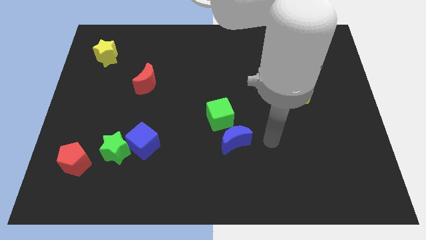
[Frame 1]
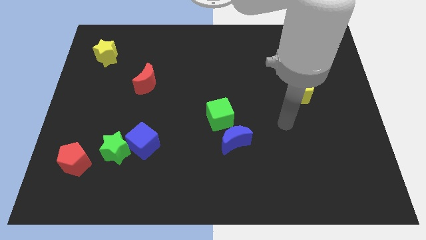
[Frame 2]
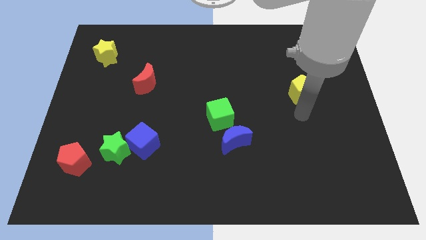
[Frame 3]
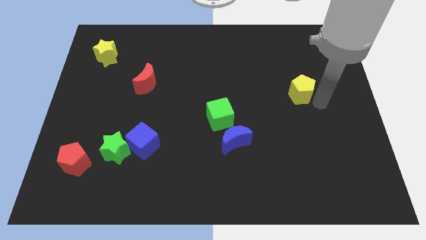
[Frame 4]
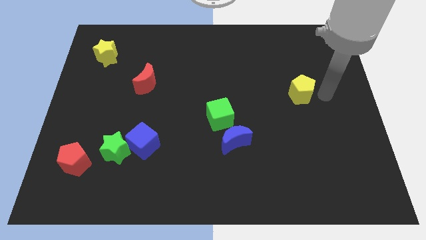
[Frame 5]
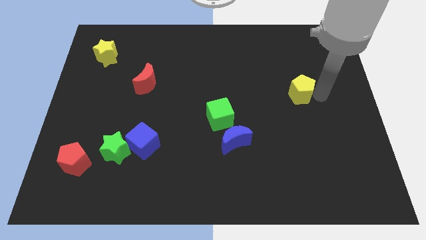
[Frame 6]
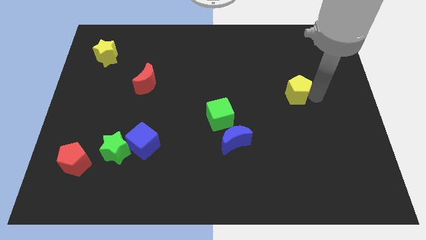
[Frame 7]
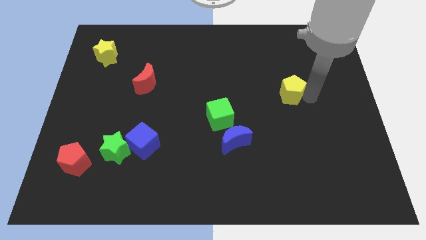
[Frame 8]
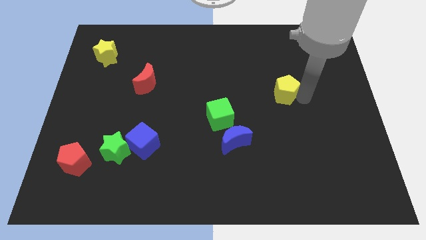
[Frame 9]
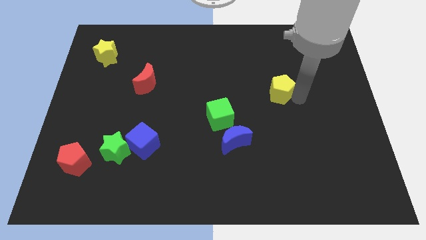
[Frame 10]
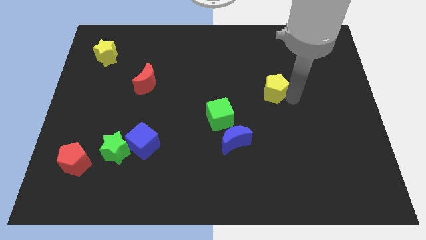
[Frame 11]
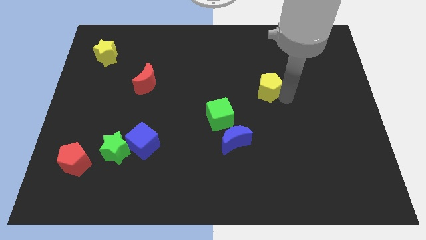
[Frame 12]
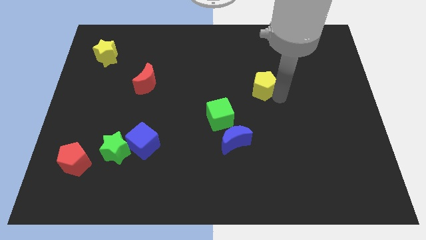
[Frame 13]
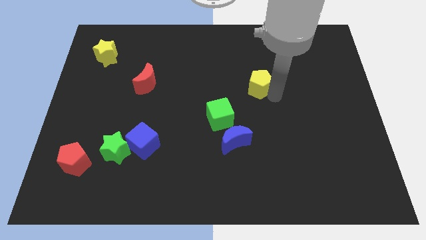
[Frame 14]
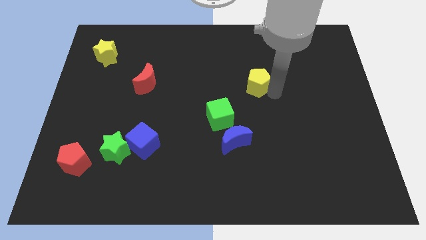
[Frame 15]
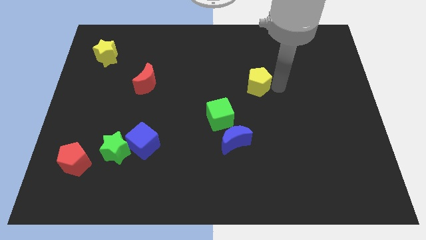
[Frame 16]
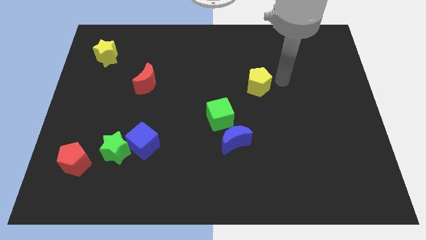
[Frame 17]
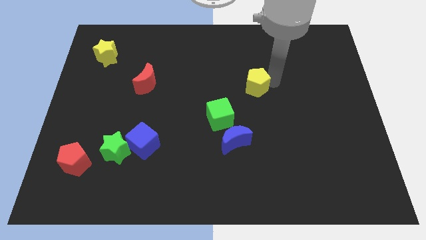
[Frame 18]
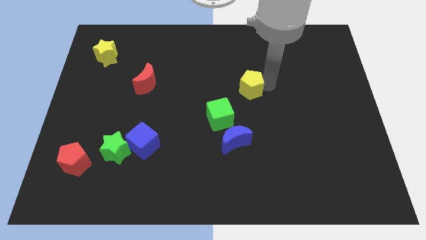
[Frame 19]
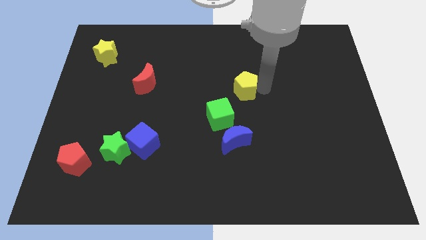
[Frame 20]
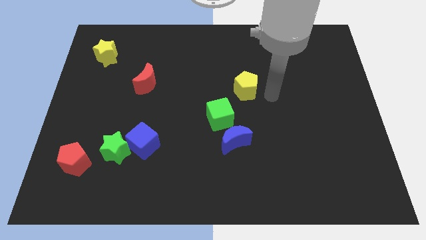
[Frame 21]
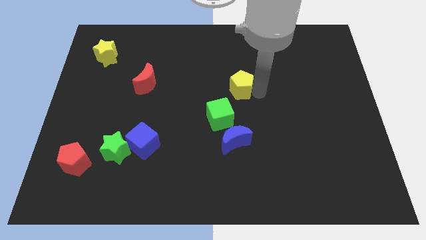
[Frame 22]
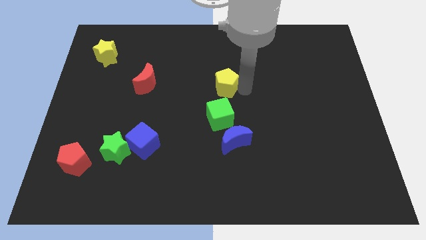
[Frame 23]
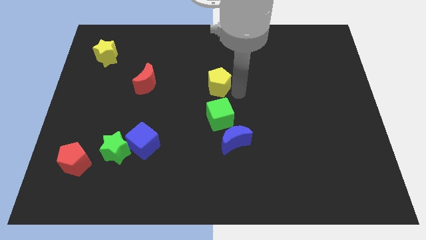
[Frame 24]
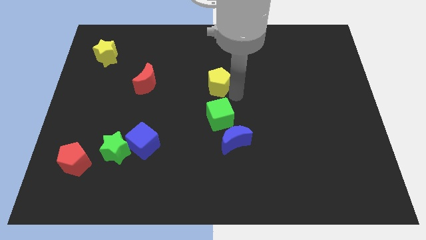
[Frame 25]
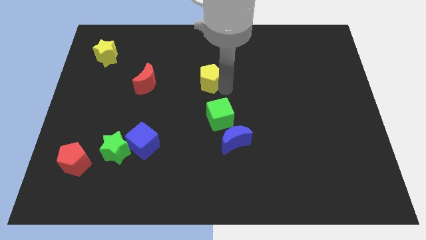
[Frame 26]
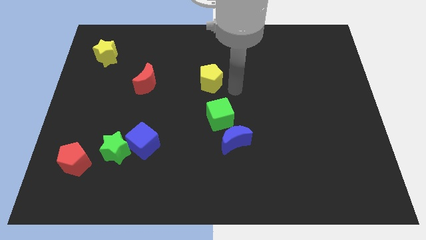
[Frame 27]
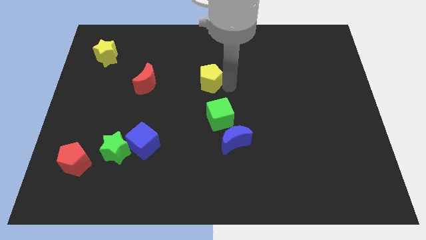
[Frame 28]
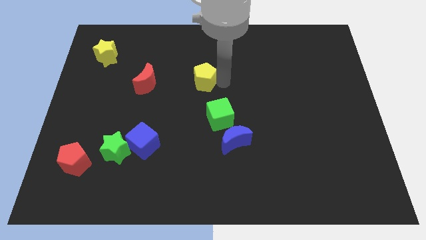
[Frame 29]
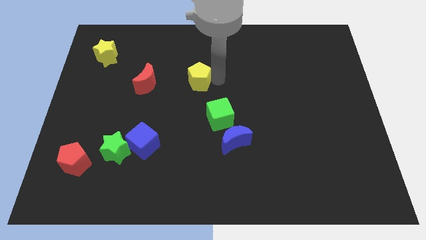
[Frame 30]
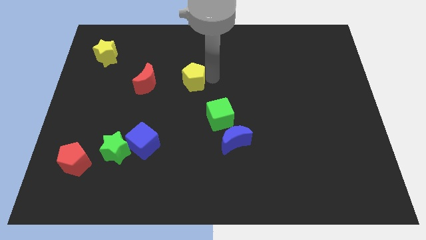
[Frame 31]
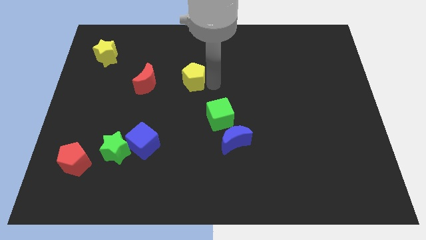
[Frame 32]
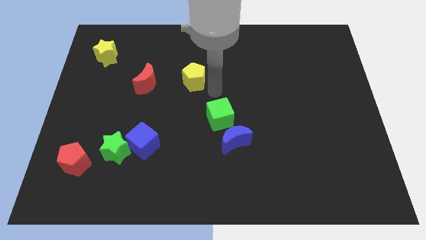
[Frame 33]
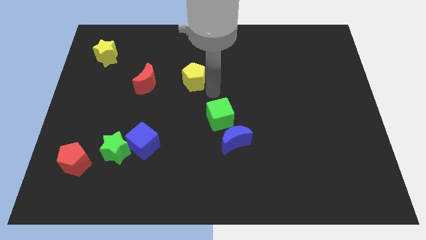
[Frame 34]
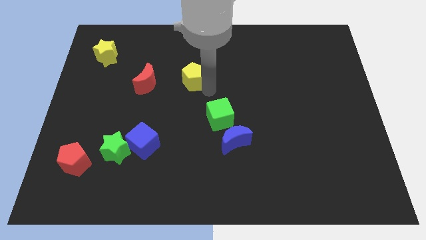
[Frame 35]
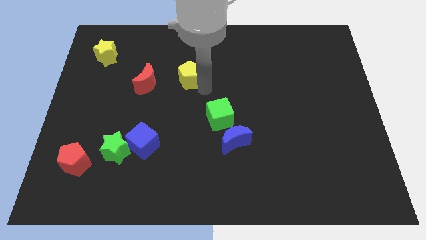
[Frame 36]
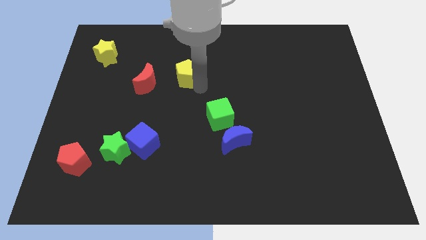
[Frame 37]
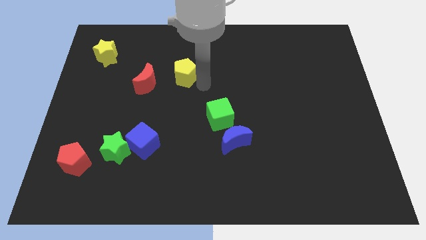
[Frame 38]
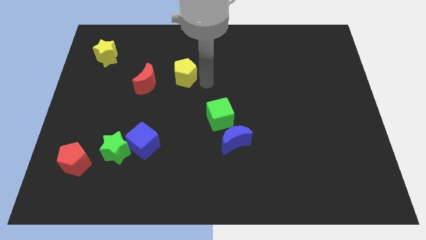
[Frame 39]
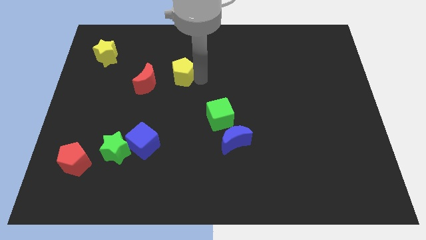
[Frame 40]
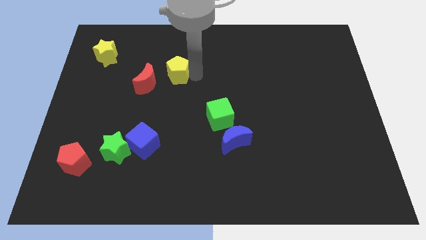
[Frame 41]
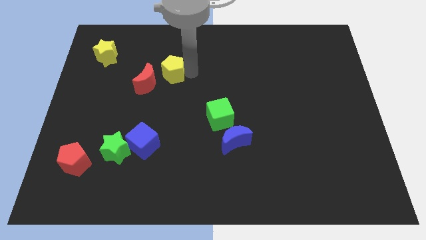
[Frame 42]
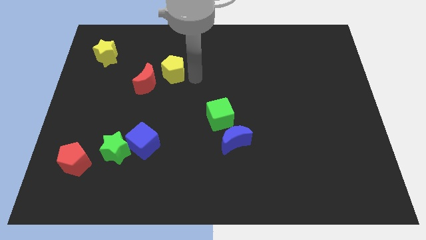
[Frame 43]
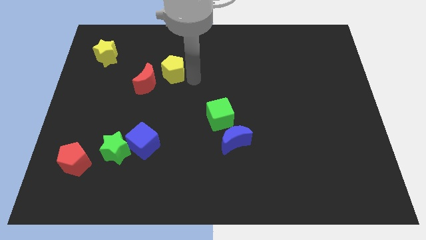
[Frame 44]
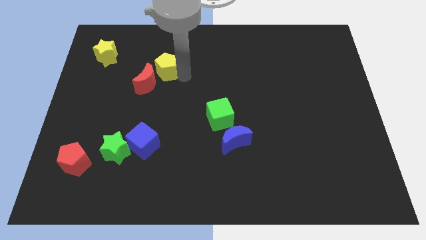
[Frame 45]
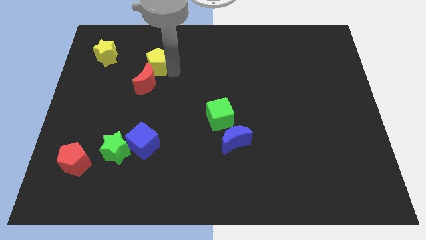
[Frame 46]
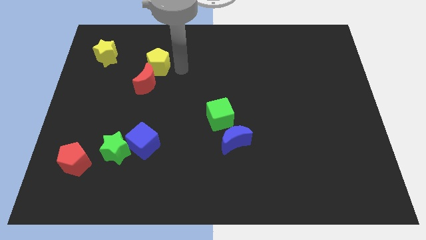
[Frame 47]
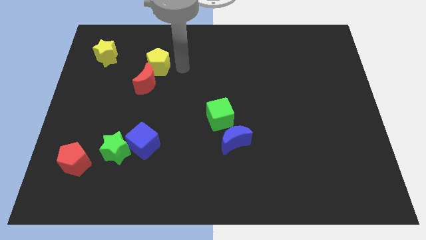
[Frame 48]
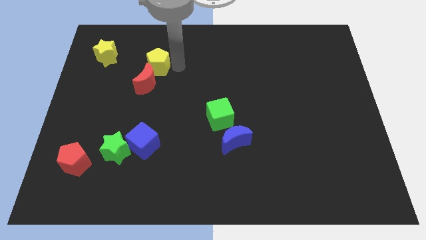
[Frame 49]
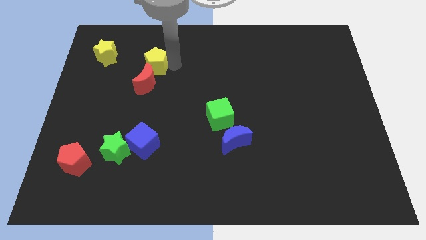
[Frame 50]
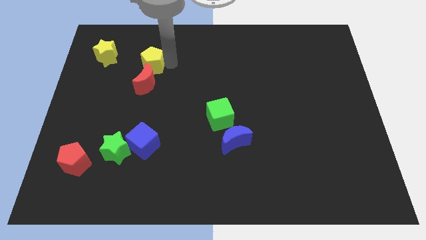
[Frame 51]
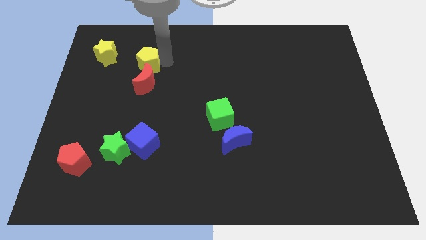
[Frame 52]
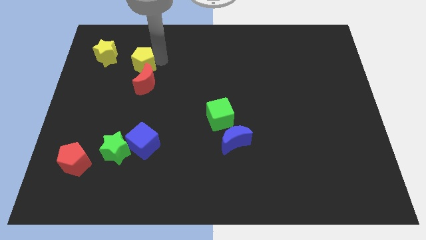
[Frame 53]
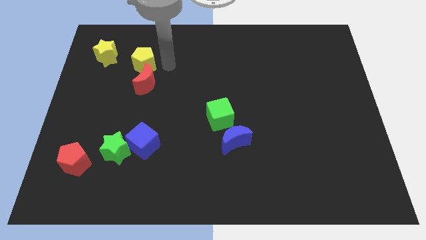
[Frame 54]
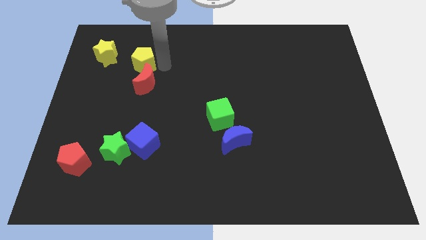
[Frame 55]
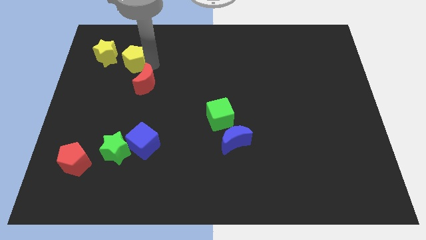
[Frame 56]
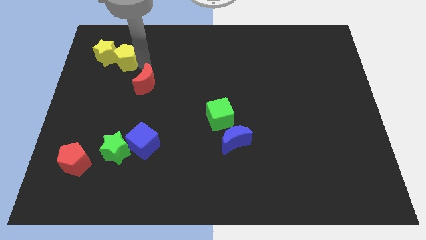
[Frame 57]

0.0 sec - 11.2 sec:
put the yellow pentagon close to the yellow star

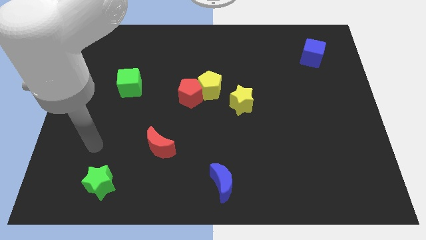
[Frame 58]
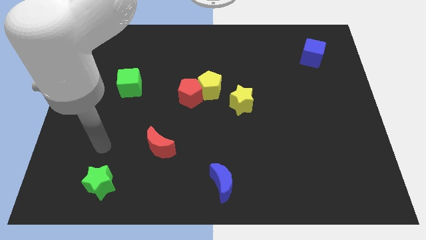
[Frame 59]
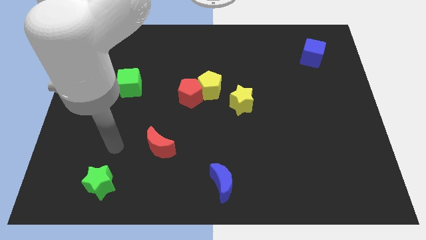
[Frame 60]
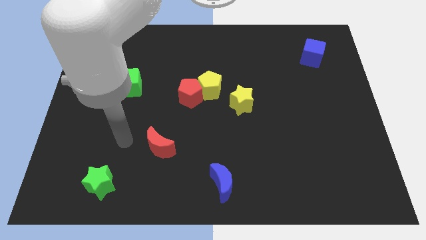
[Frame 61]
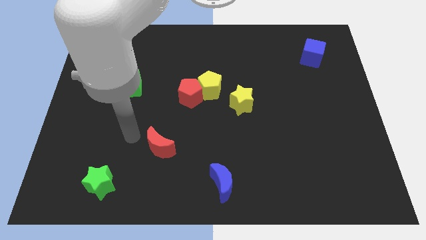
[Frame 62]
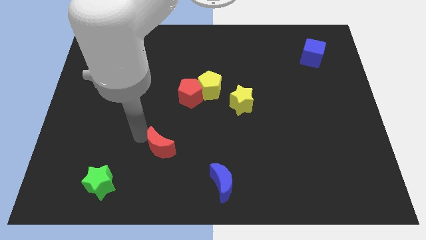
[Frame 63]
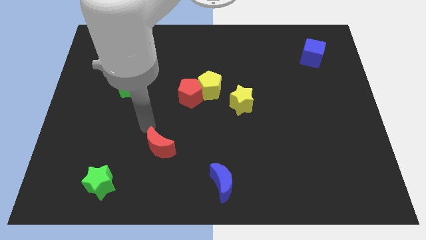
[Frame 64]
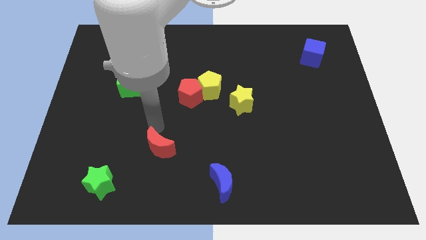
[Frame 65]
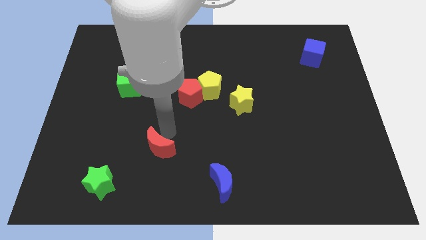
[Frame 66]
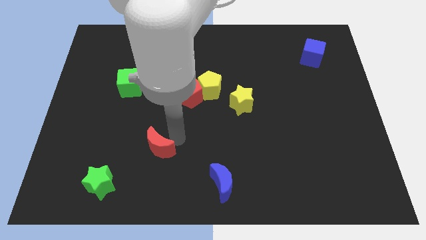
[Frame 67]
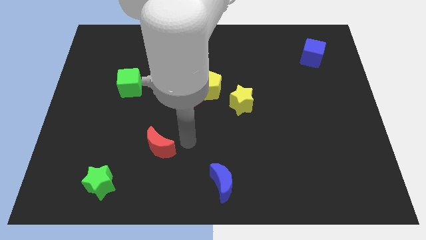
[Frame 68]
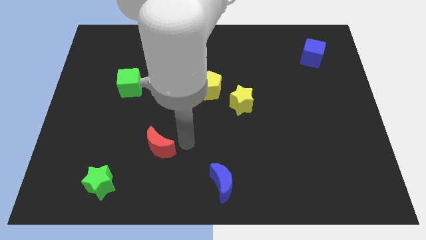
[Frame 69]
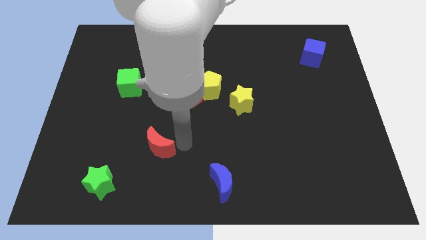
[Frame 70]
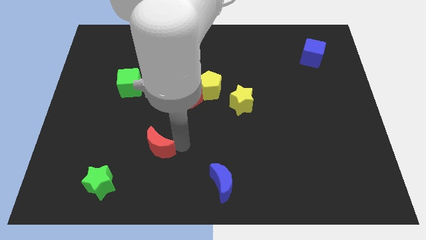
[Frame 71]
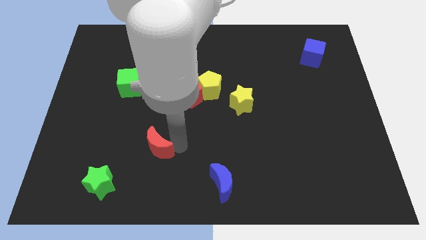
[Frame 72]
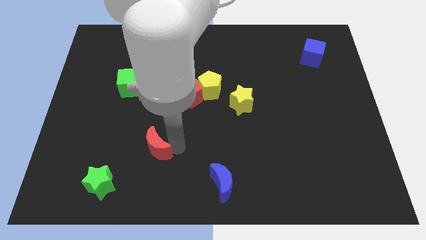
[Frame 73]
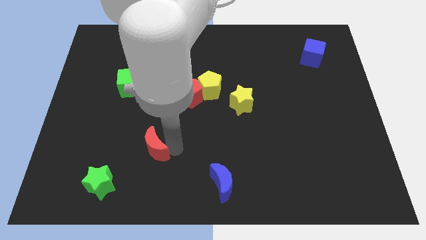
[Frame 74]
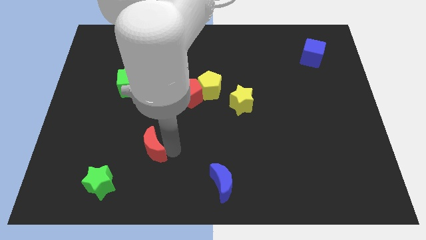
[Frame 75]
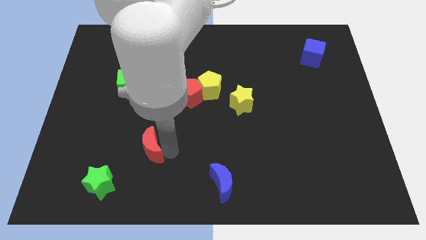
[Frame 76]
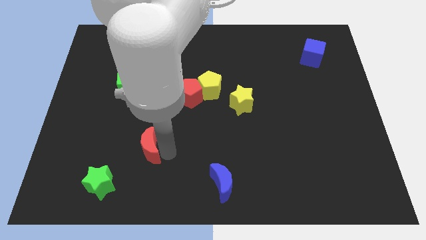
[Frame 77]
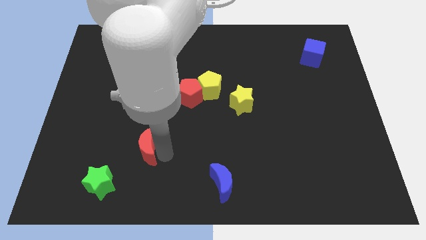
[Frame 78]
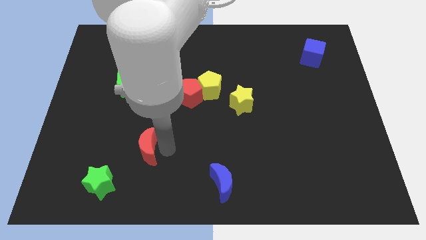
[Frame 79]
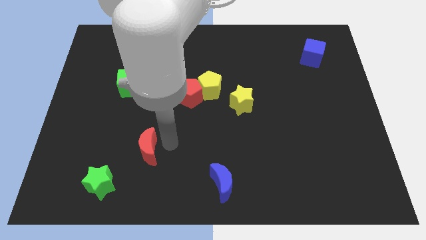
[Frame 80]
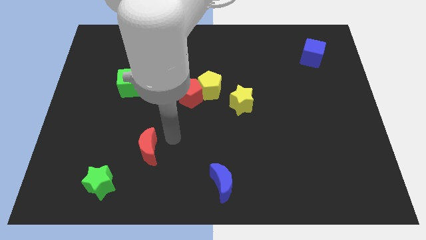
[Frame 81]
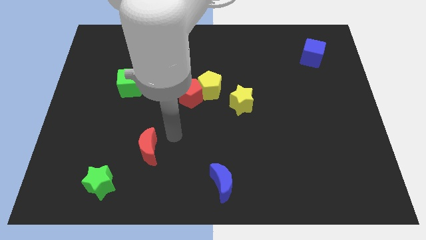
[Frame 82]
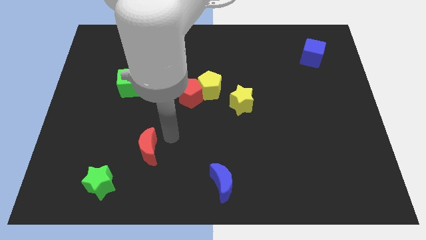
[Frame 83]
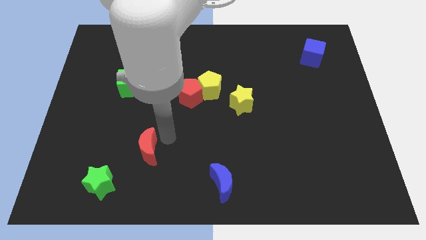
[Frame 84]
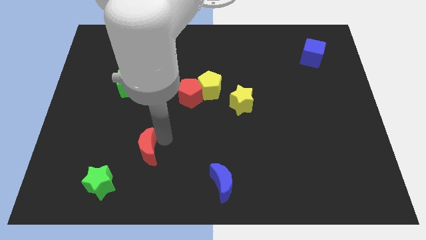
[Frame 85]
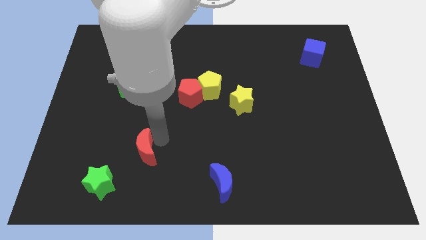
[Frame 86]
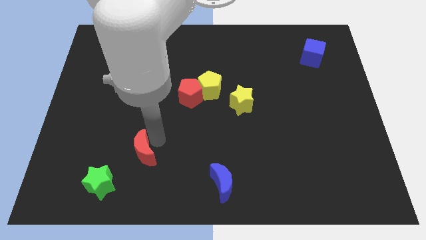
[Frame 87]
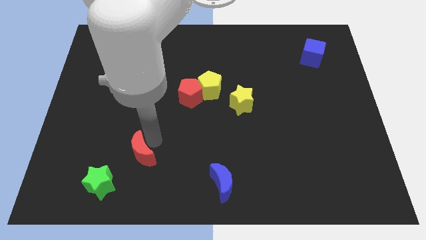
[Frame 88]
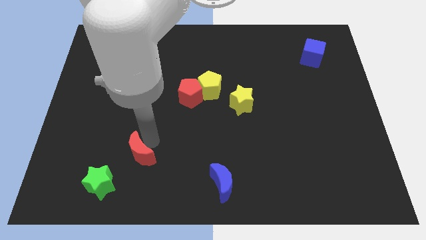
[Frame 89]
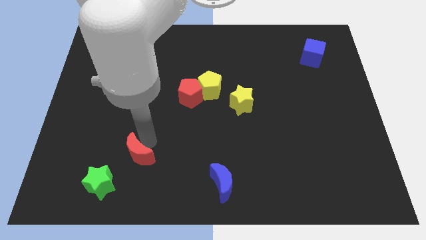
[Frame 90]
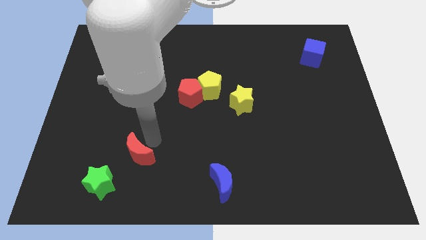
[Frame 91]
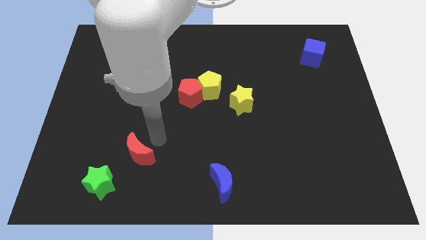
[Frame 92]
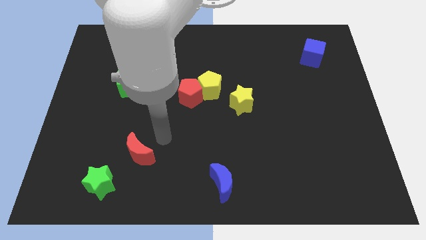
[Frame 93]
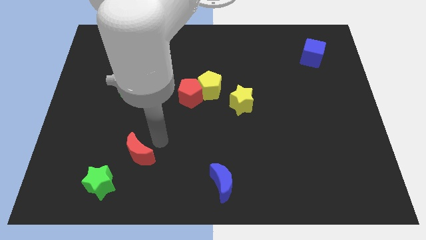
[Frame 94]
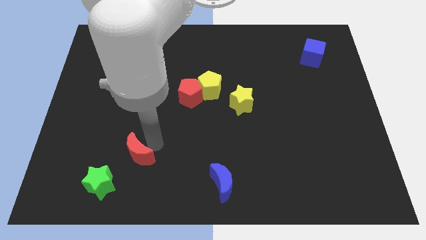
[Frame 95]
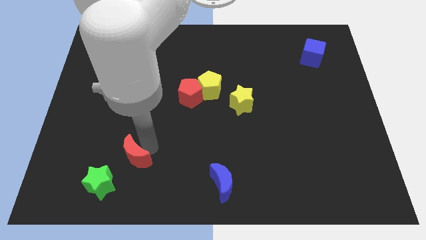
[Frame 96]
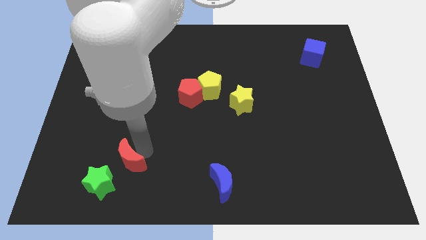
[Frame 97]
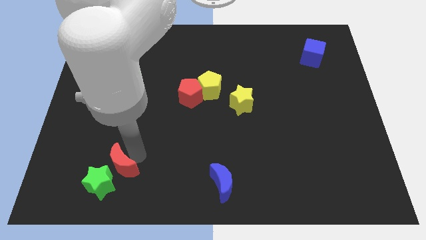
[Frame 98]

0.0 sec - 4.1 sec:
move the red moon towards the green star
